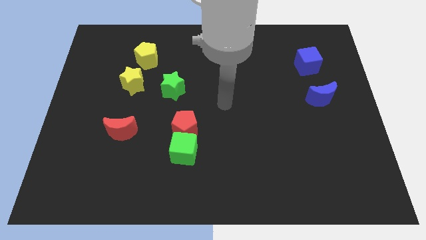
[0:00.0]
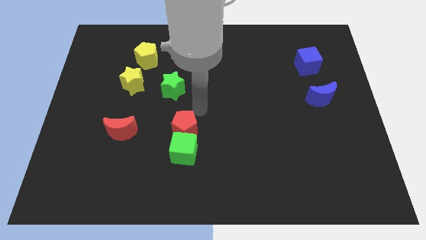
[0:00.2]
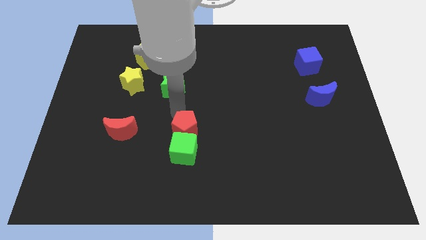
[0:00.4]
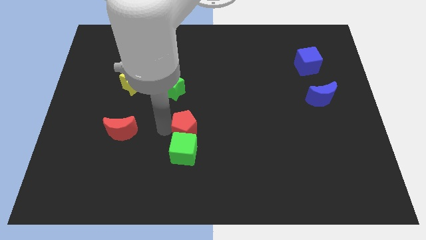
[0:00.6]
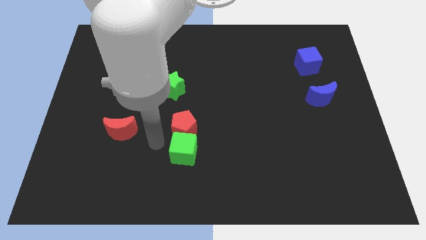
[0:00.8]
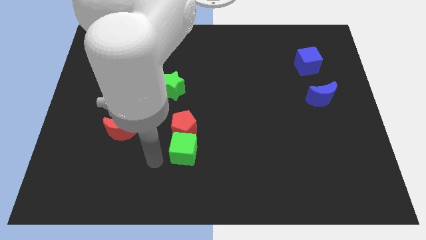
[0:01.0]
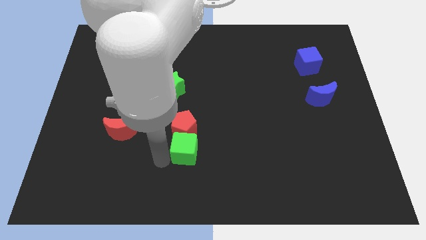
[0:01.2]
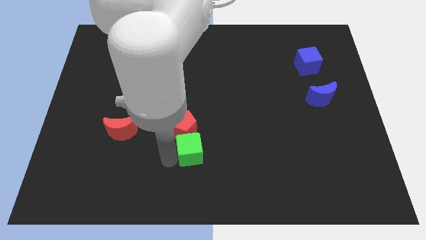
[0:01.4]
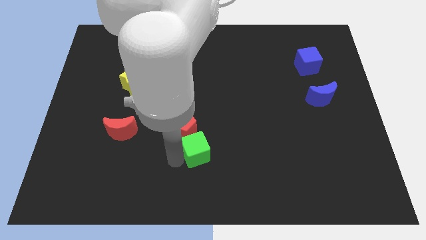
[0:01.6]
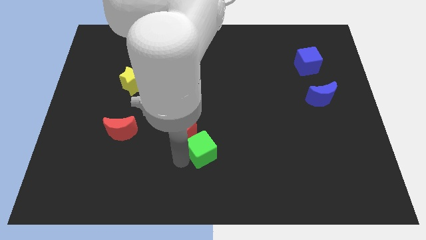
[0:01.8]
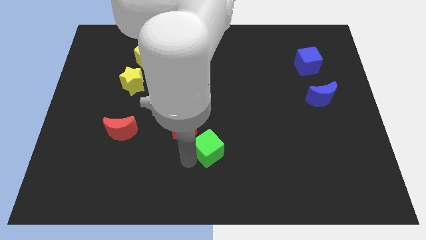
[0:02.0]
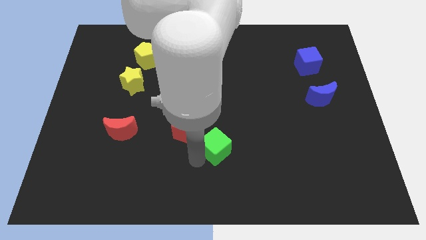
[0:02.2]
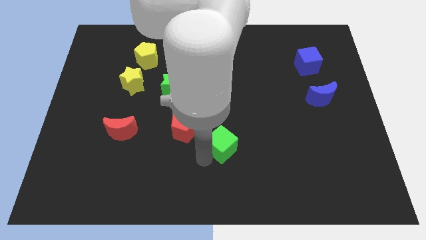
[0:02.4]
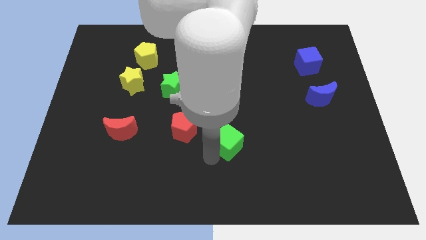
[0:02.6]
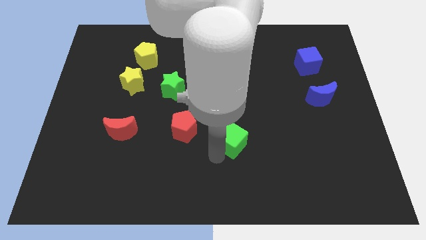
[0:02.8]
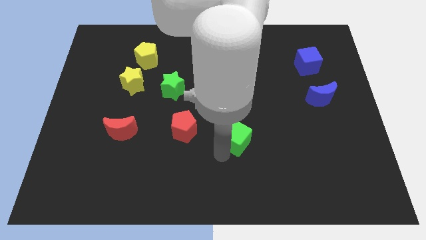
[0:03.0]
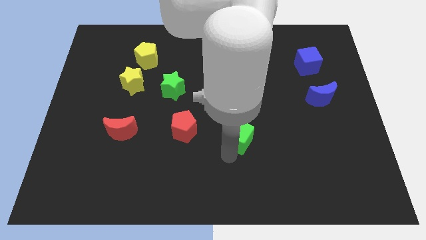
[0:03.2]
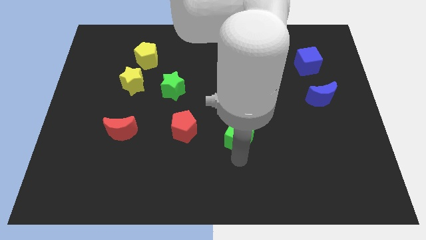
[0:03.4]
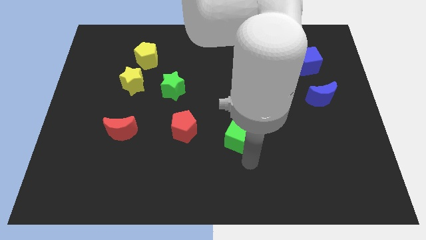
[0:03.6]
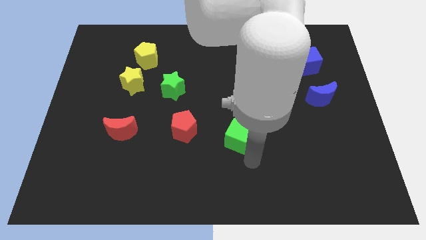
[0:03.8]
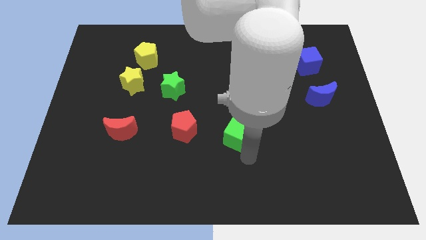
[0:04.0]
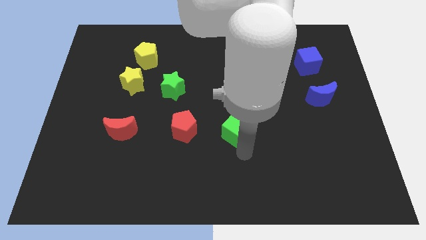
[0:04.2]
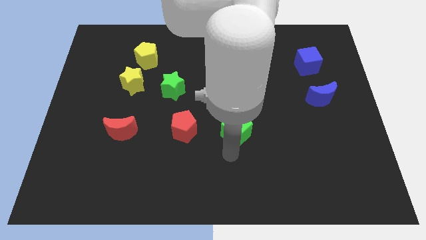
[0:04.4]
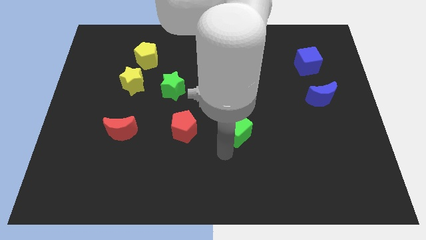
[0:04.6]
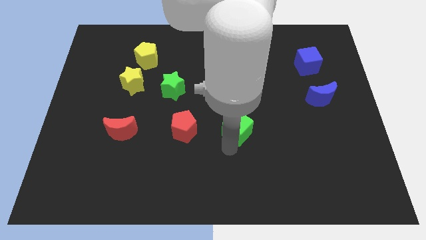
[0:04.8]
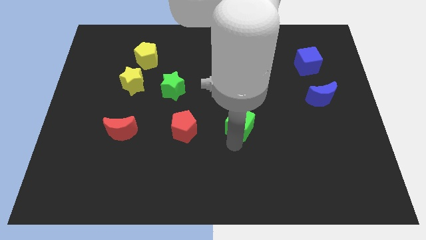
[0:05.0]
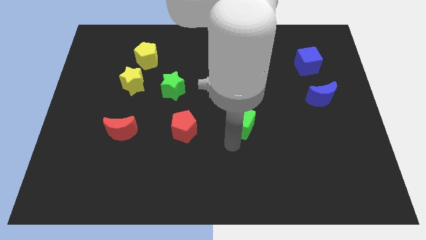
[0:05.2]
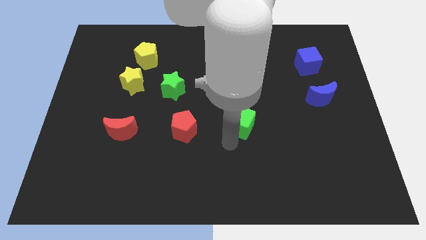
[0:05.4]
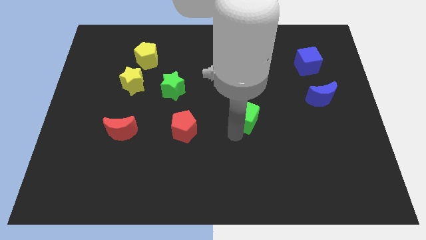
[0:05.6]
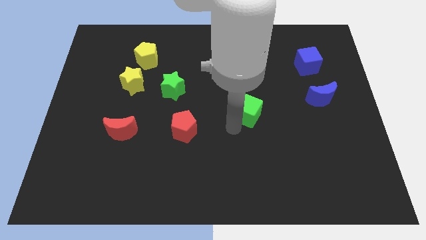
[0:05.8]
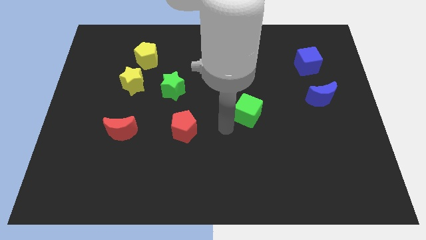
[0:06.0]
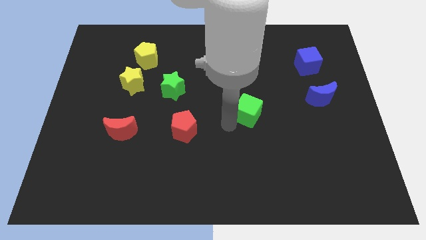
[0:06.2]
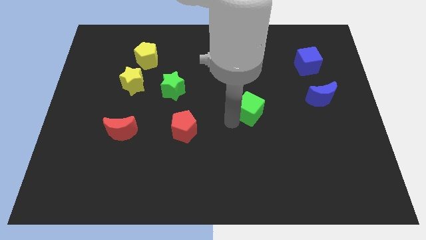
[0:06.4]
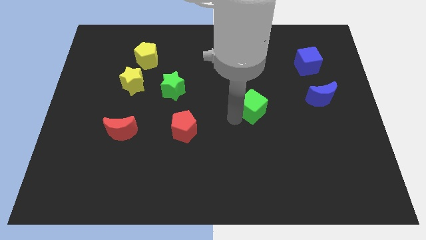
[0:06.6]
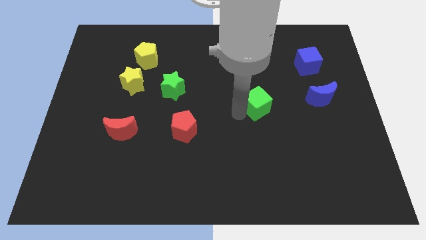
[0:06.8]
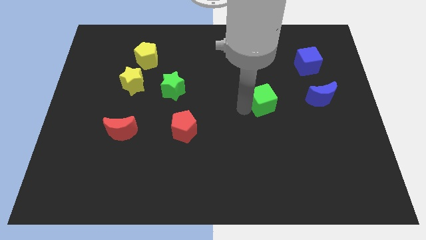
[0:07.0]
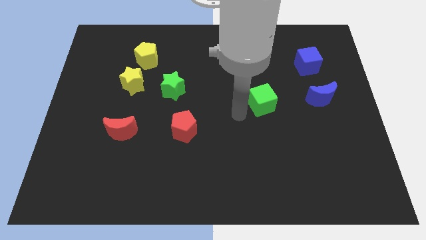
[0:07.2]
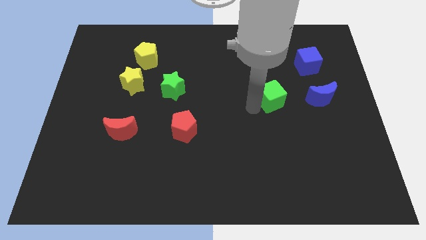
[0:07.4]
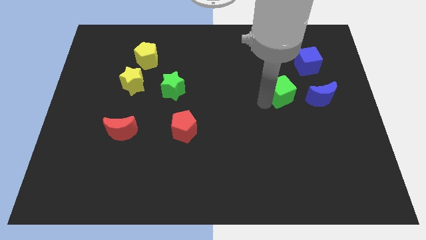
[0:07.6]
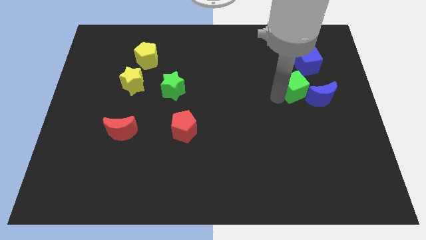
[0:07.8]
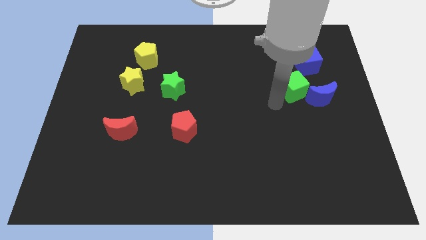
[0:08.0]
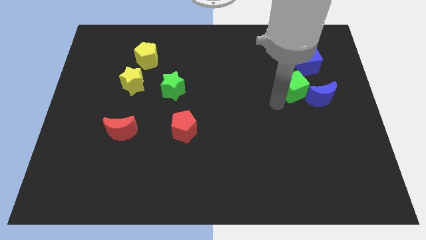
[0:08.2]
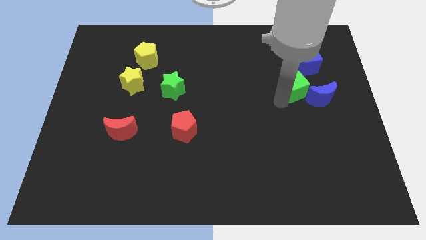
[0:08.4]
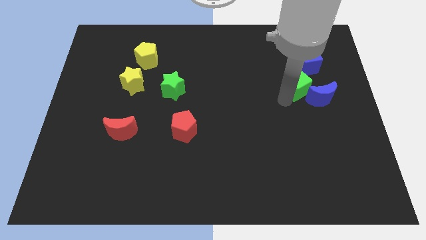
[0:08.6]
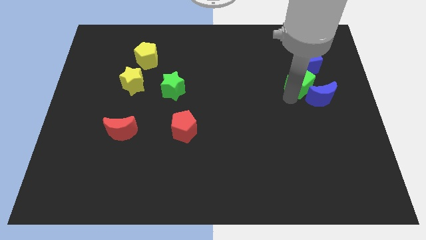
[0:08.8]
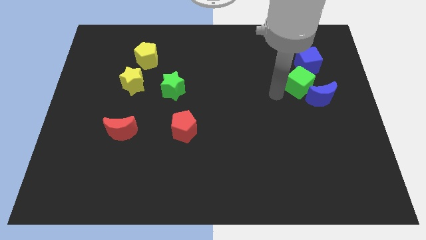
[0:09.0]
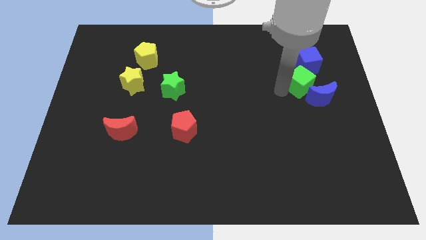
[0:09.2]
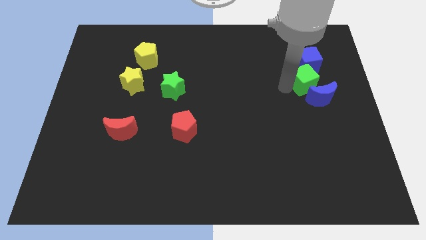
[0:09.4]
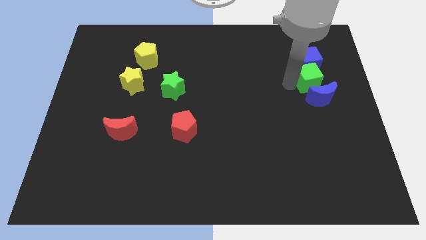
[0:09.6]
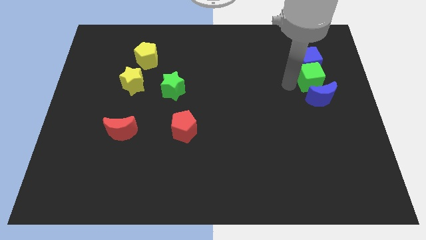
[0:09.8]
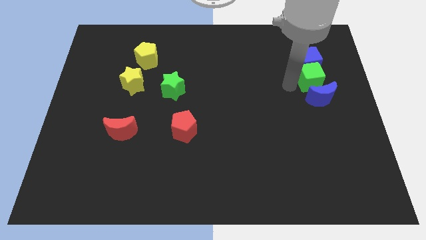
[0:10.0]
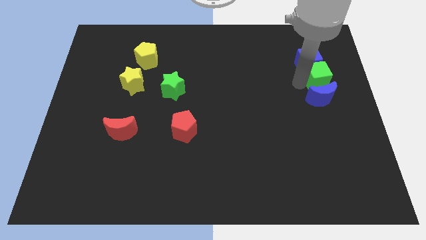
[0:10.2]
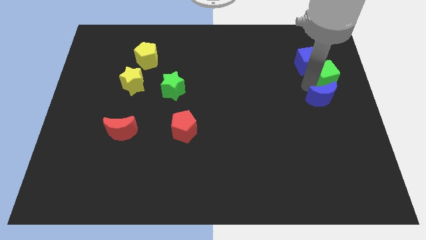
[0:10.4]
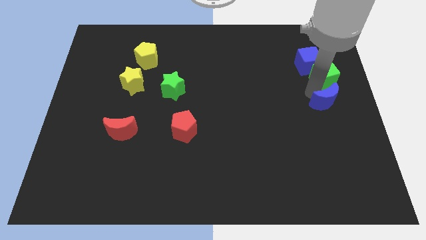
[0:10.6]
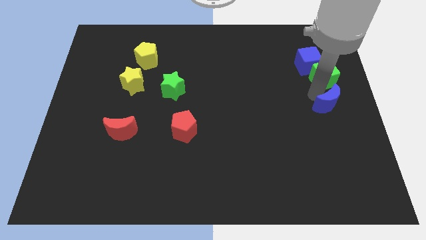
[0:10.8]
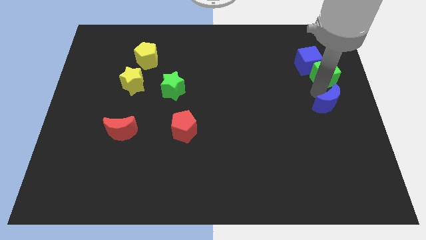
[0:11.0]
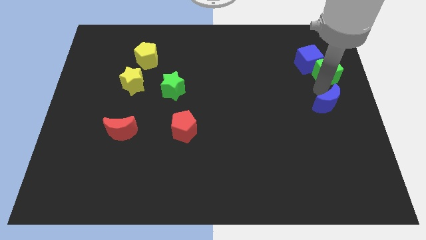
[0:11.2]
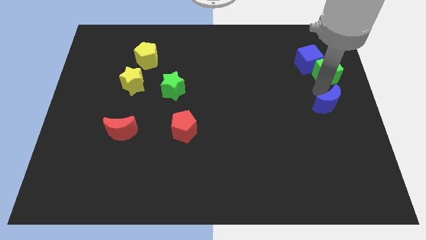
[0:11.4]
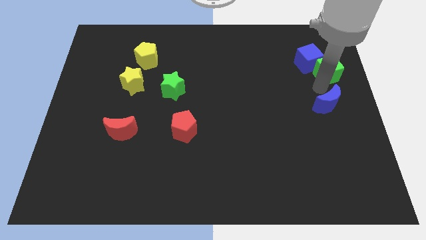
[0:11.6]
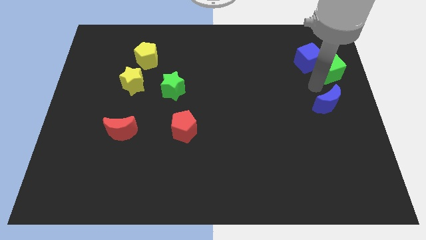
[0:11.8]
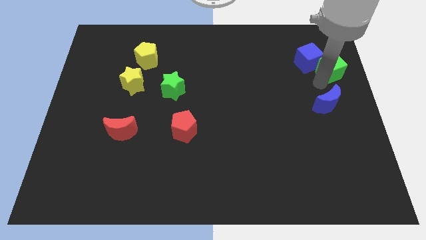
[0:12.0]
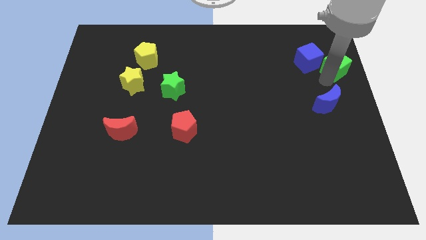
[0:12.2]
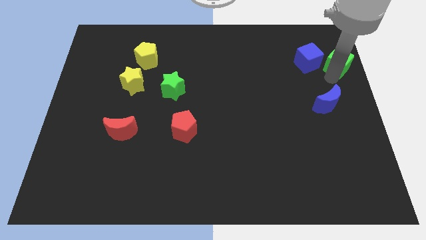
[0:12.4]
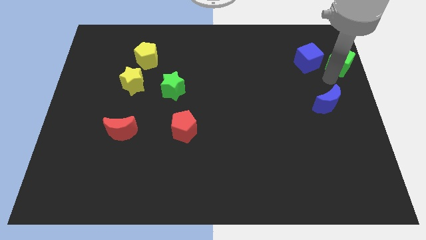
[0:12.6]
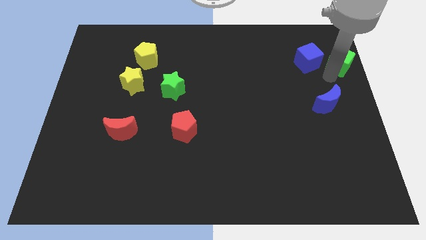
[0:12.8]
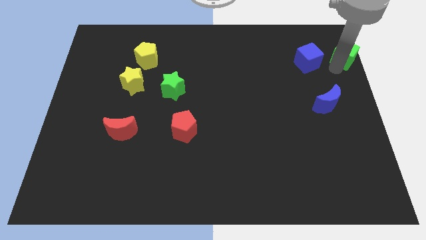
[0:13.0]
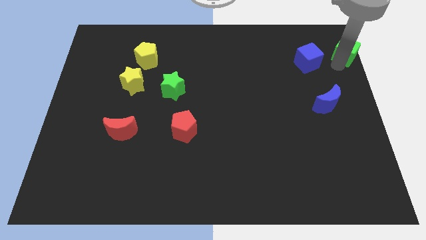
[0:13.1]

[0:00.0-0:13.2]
move the green cube to the top right of the board

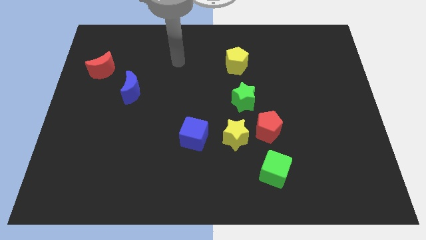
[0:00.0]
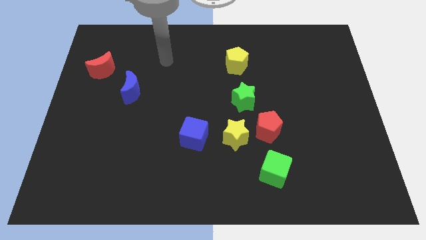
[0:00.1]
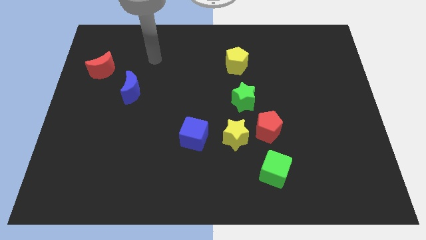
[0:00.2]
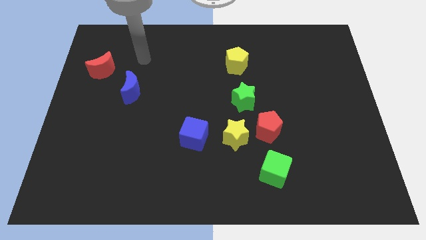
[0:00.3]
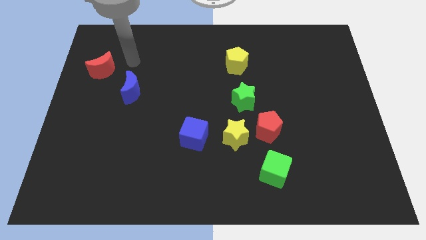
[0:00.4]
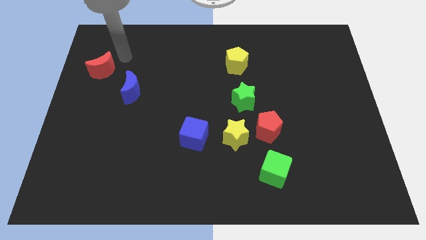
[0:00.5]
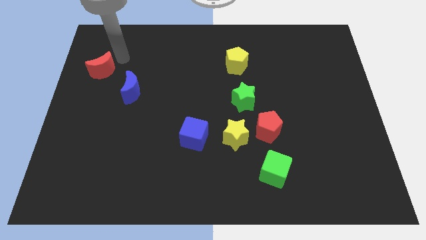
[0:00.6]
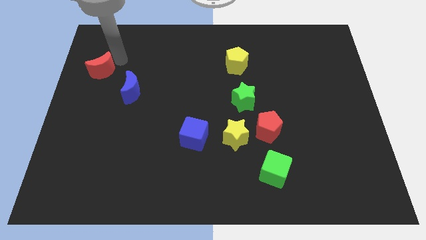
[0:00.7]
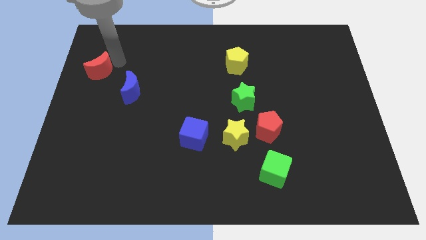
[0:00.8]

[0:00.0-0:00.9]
put the red moon to the center left
